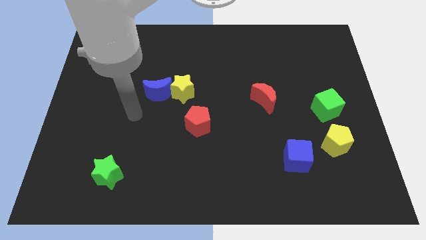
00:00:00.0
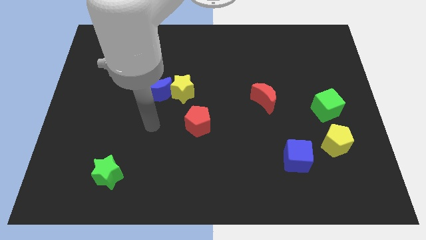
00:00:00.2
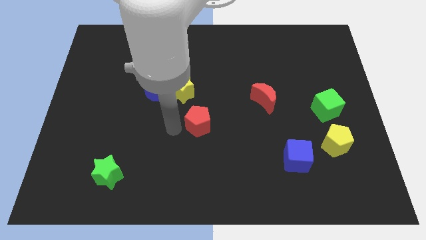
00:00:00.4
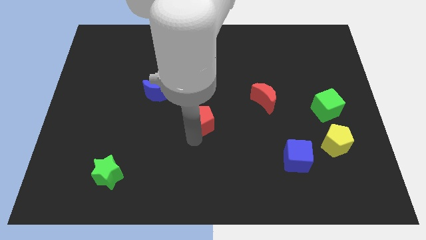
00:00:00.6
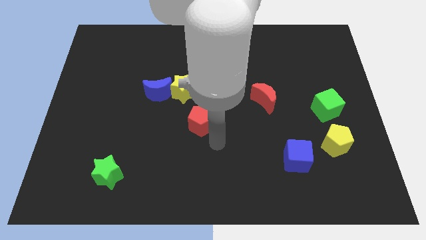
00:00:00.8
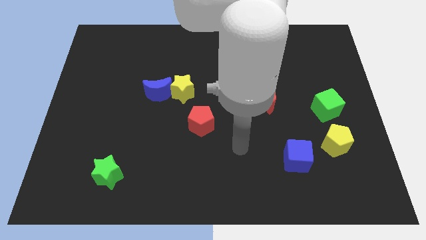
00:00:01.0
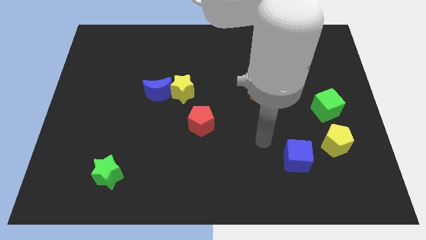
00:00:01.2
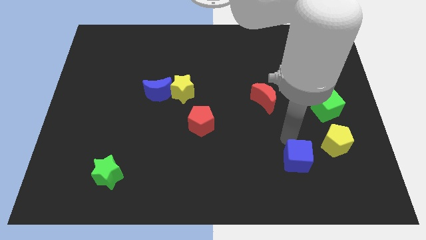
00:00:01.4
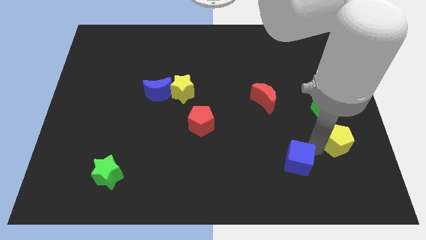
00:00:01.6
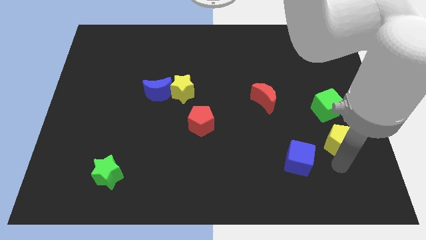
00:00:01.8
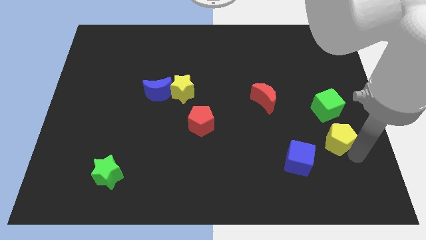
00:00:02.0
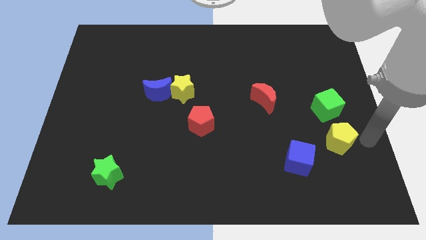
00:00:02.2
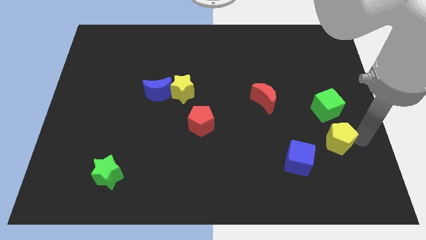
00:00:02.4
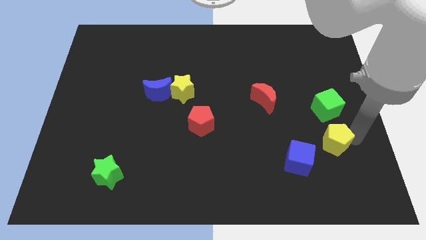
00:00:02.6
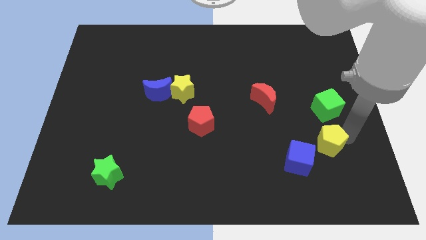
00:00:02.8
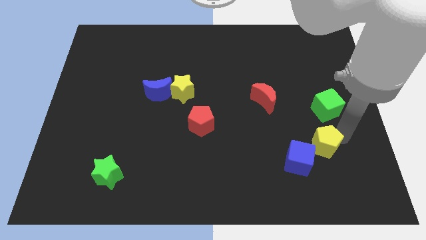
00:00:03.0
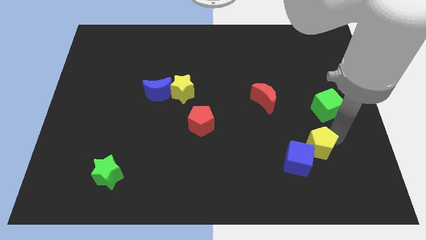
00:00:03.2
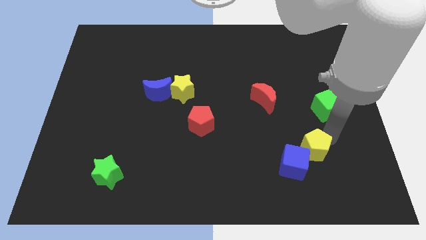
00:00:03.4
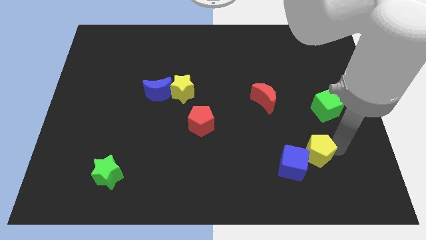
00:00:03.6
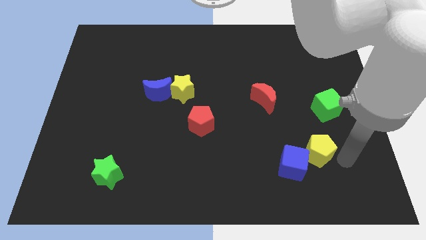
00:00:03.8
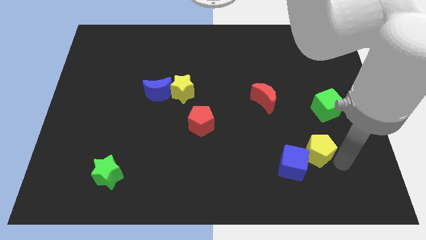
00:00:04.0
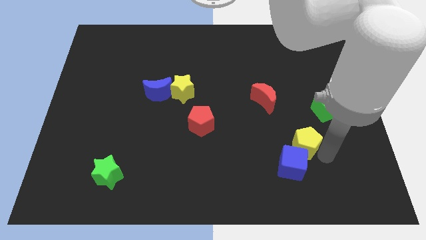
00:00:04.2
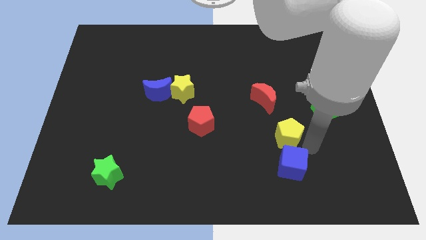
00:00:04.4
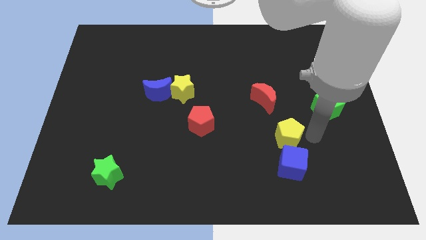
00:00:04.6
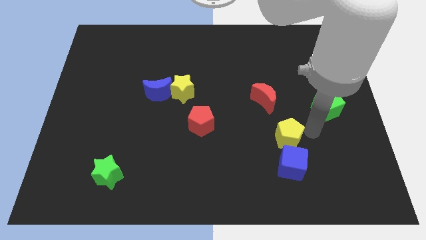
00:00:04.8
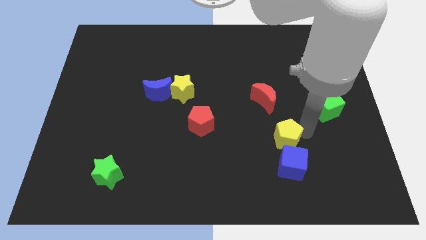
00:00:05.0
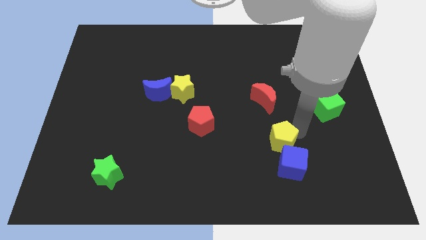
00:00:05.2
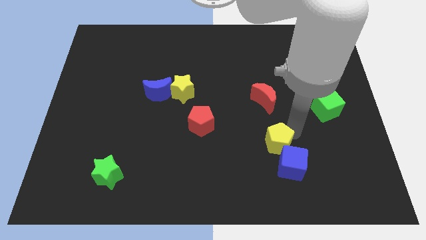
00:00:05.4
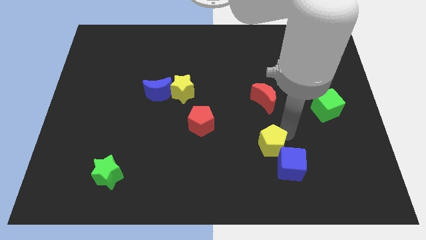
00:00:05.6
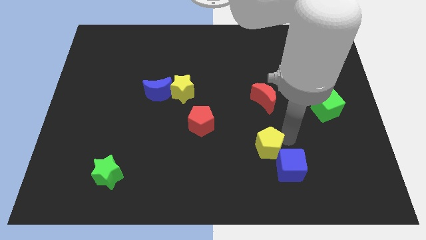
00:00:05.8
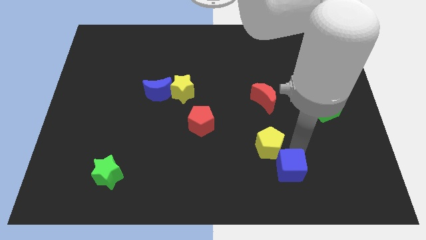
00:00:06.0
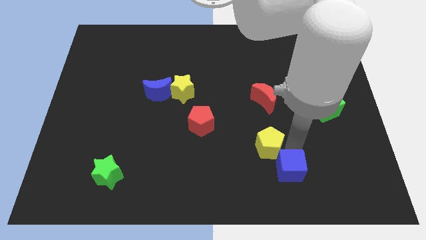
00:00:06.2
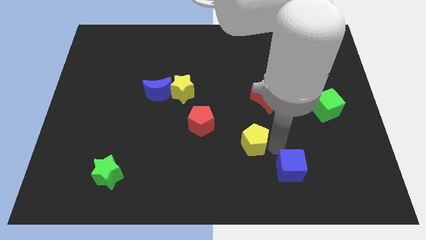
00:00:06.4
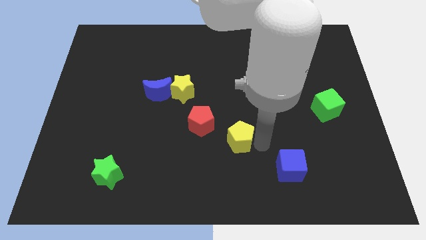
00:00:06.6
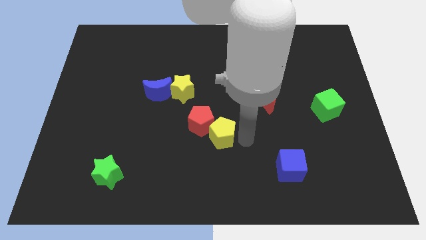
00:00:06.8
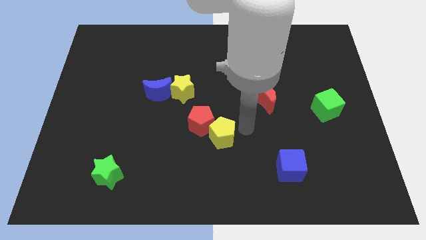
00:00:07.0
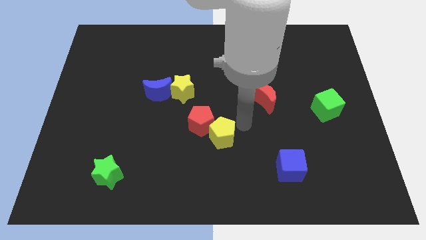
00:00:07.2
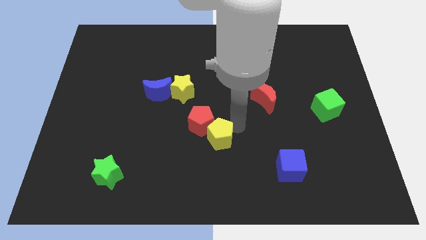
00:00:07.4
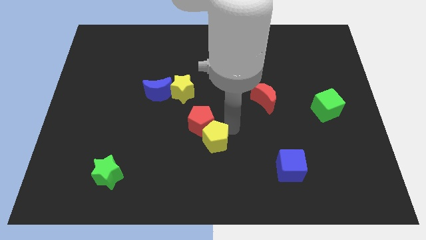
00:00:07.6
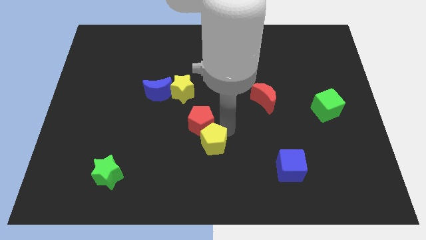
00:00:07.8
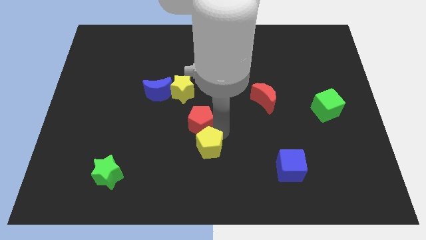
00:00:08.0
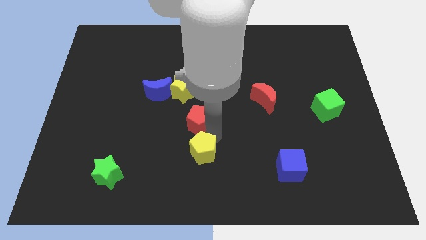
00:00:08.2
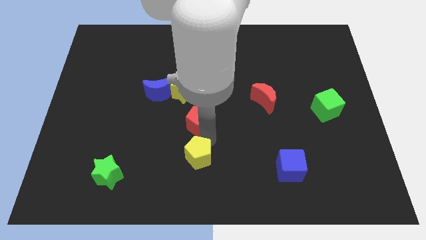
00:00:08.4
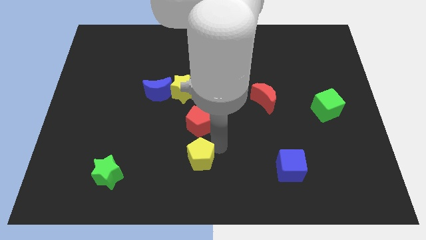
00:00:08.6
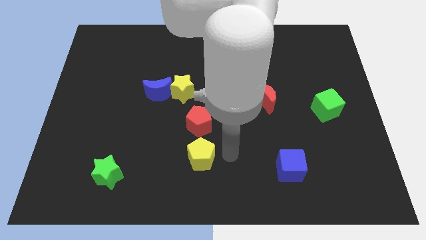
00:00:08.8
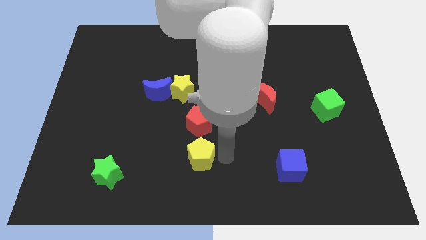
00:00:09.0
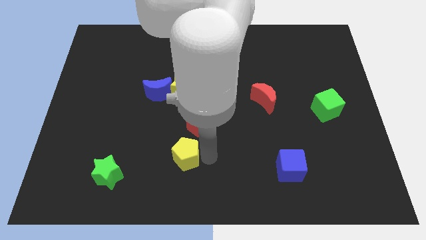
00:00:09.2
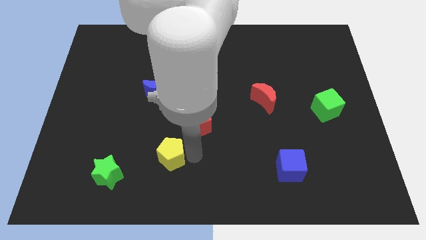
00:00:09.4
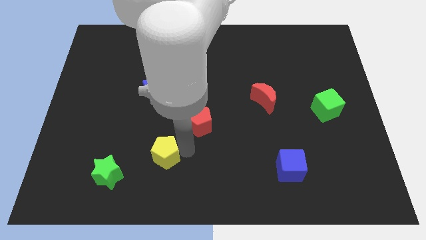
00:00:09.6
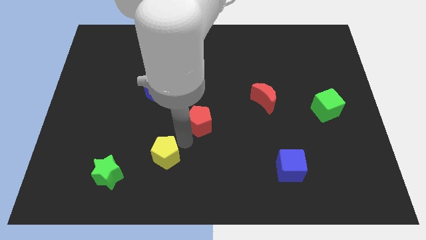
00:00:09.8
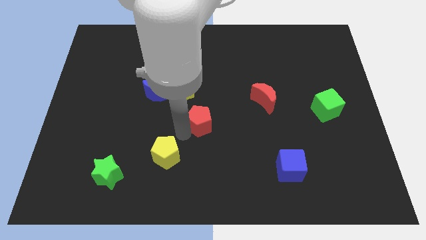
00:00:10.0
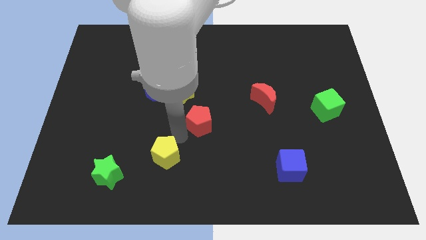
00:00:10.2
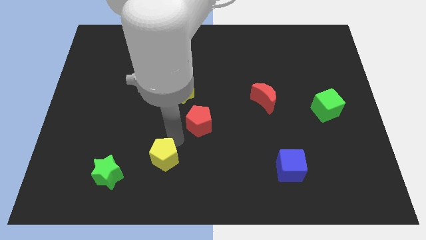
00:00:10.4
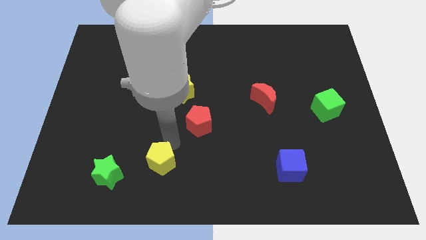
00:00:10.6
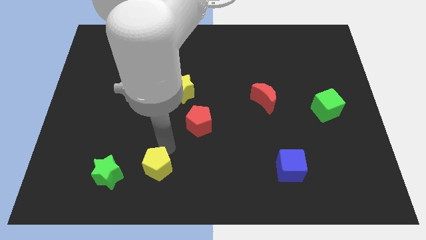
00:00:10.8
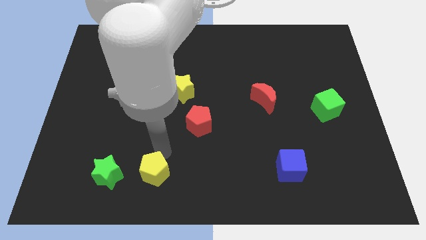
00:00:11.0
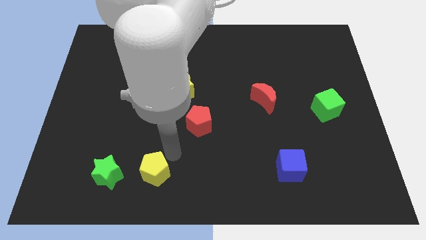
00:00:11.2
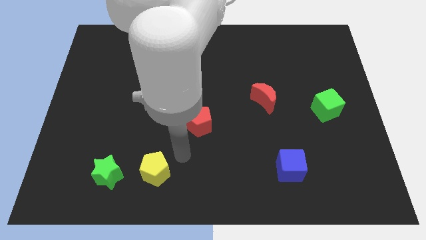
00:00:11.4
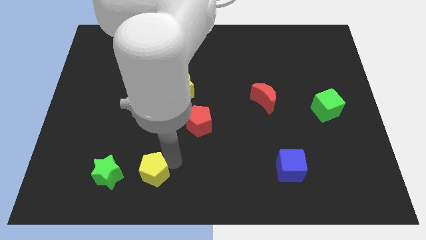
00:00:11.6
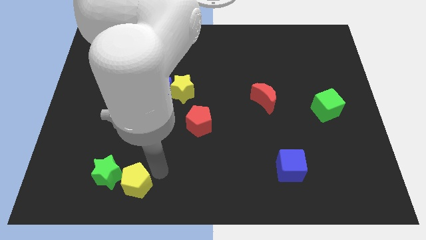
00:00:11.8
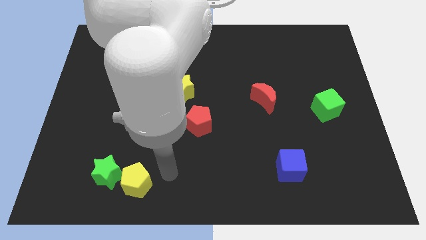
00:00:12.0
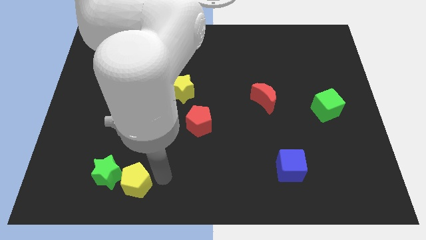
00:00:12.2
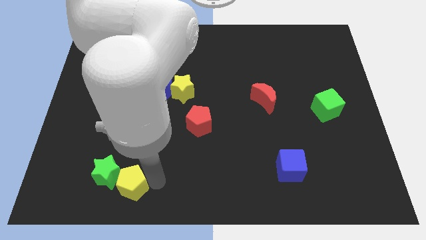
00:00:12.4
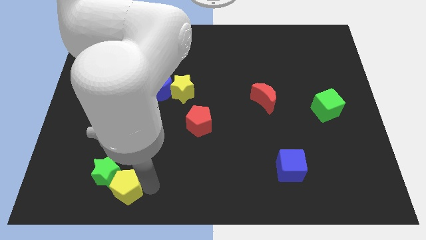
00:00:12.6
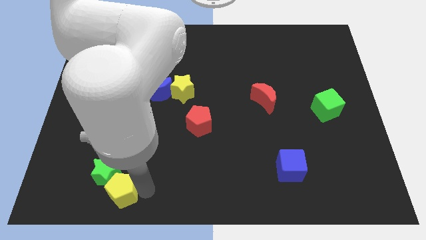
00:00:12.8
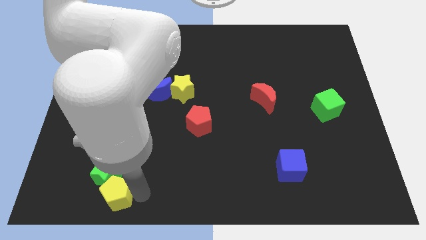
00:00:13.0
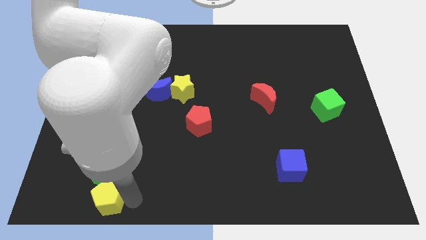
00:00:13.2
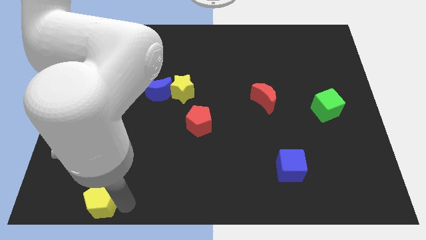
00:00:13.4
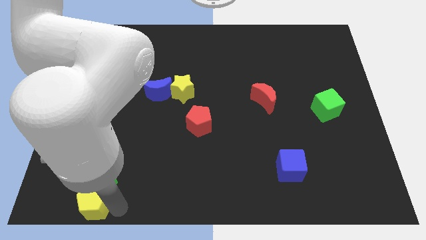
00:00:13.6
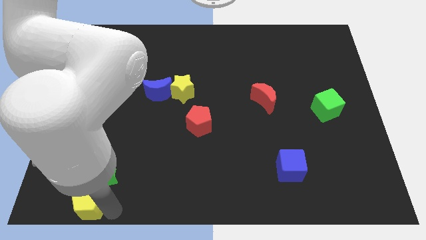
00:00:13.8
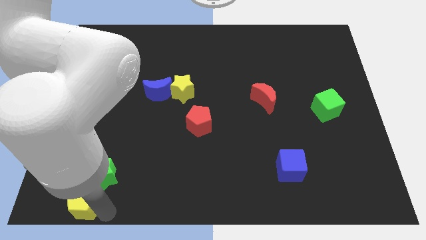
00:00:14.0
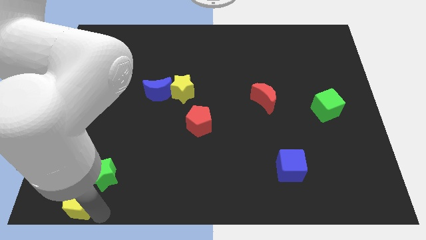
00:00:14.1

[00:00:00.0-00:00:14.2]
put the yellow pentagon to the bottom left corner
